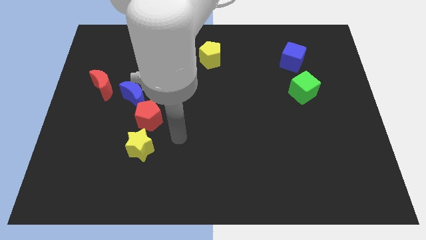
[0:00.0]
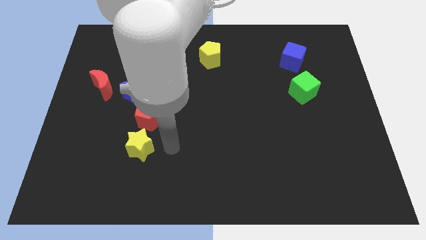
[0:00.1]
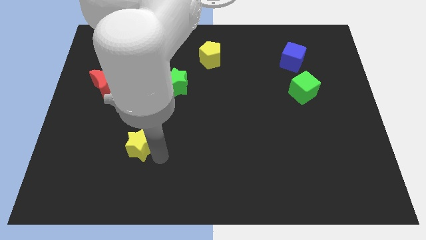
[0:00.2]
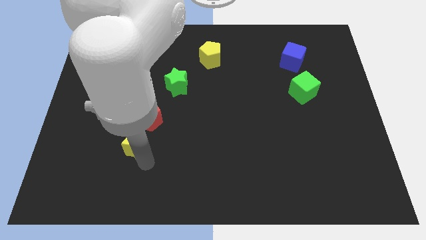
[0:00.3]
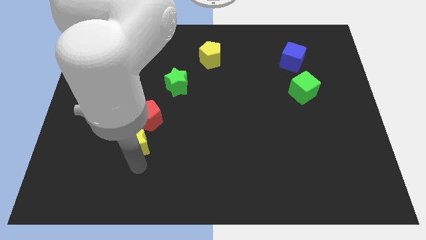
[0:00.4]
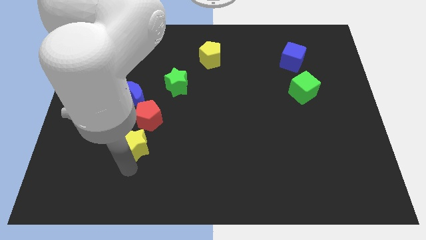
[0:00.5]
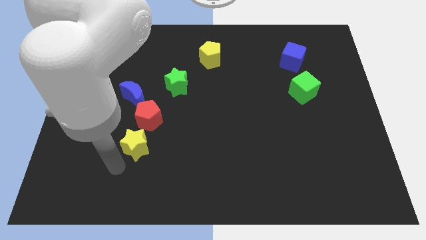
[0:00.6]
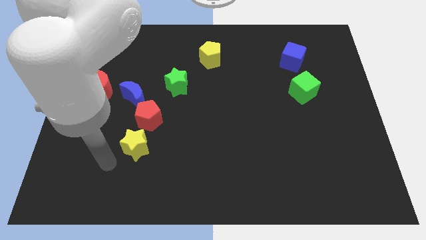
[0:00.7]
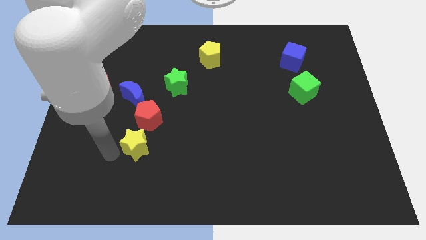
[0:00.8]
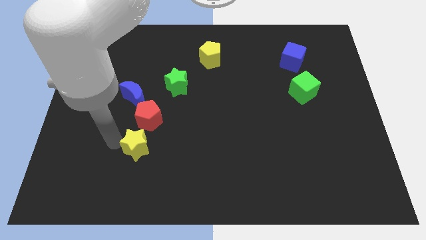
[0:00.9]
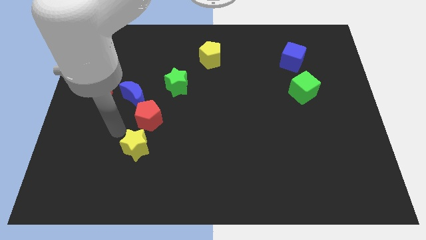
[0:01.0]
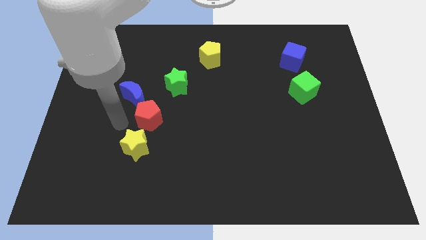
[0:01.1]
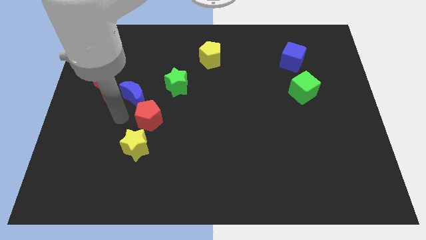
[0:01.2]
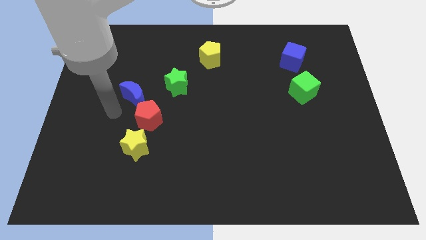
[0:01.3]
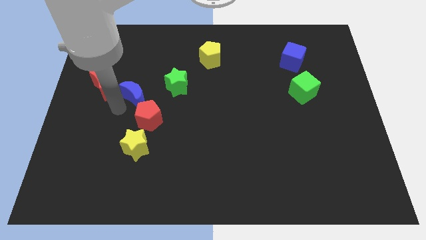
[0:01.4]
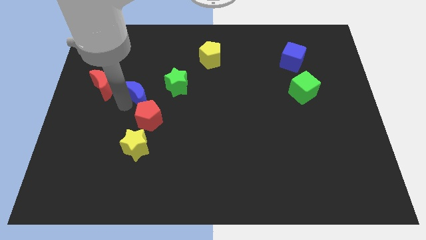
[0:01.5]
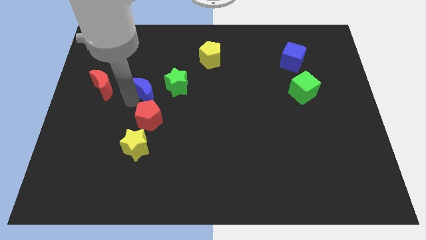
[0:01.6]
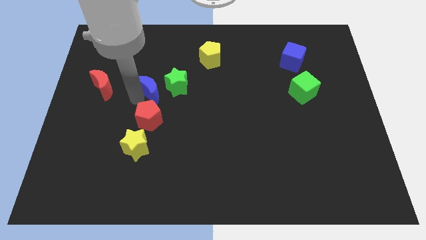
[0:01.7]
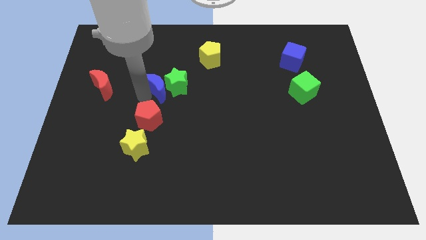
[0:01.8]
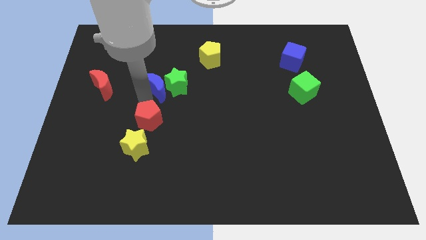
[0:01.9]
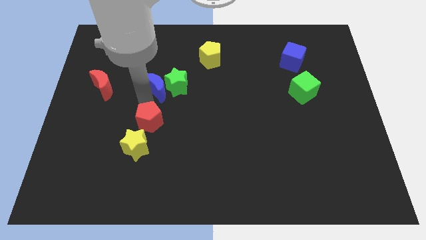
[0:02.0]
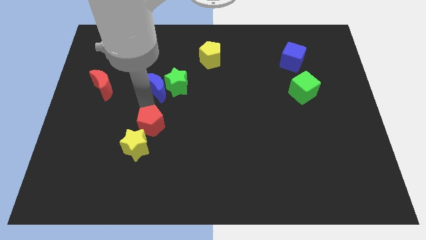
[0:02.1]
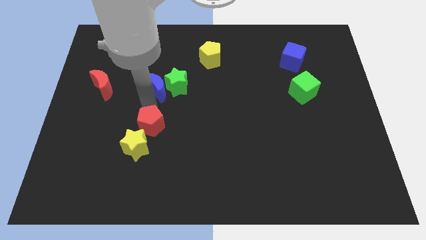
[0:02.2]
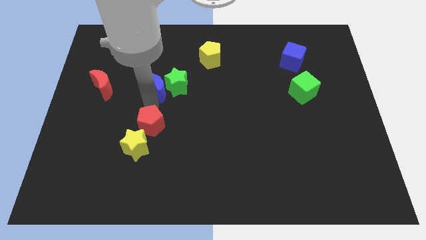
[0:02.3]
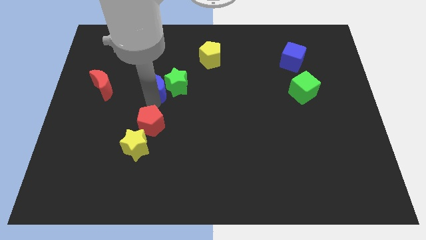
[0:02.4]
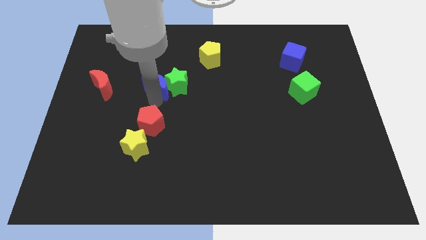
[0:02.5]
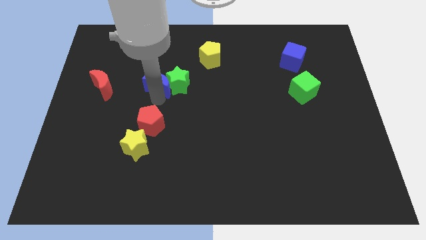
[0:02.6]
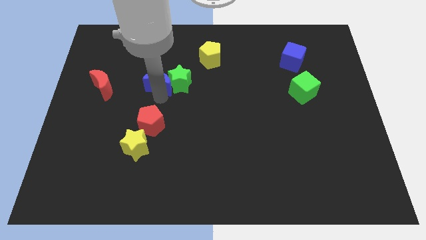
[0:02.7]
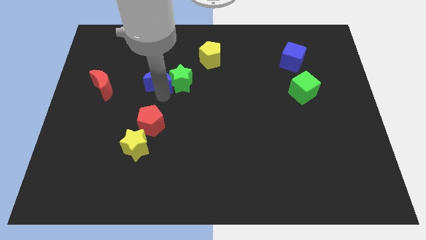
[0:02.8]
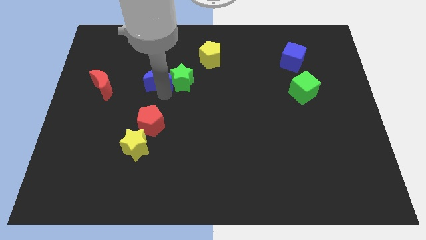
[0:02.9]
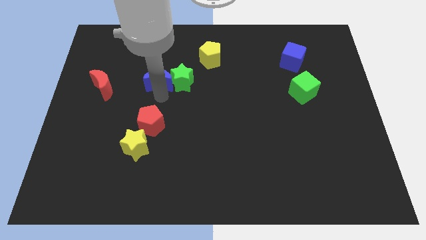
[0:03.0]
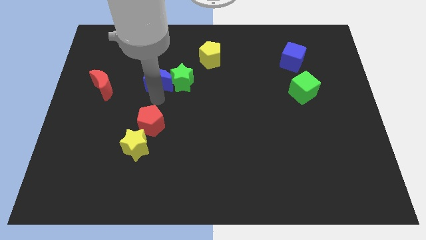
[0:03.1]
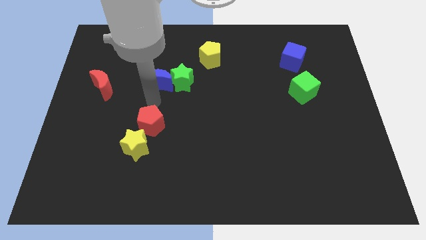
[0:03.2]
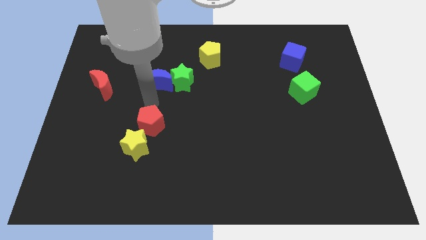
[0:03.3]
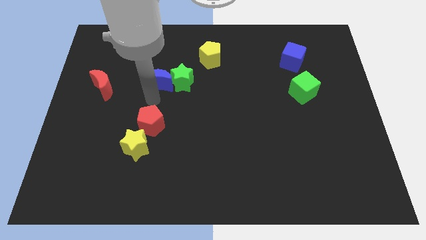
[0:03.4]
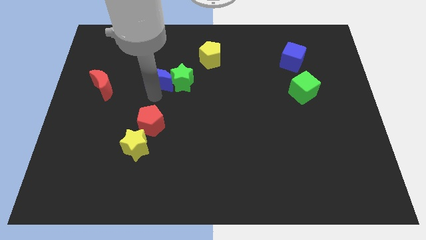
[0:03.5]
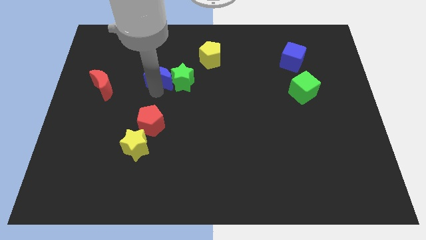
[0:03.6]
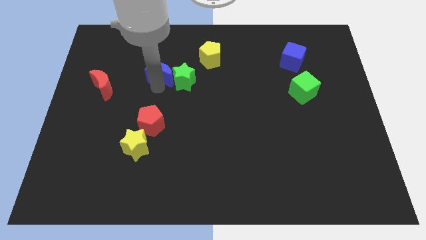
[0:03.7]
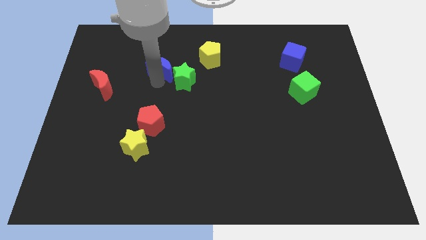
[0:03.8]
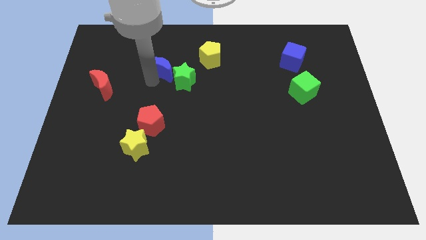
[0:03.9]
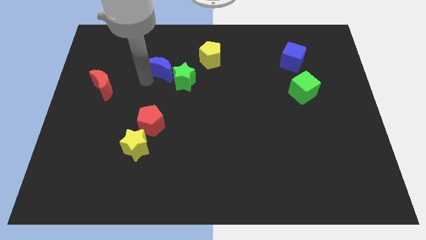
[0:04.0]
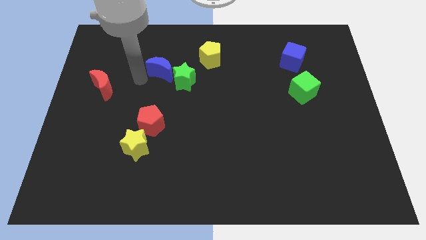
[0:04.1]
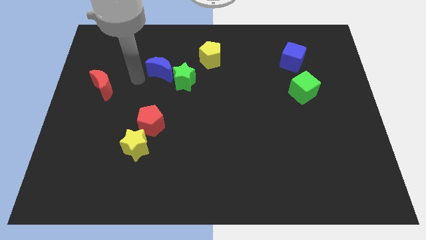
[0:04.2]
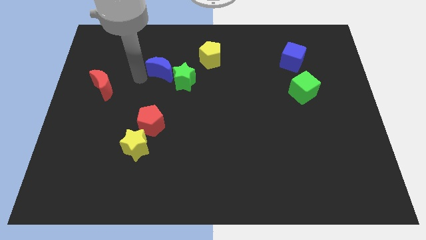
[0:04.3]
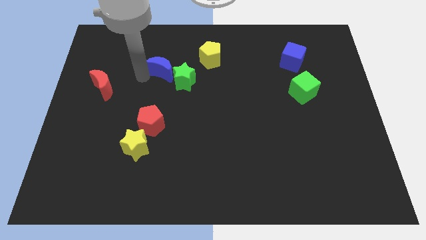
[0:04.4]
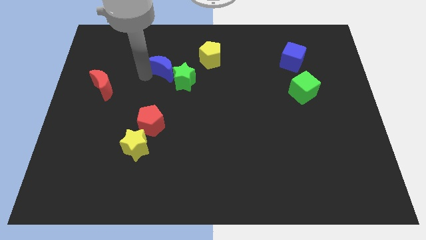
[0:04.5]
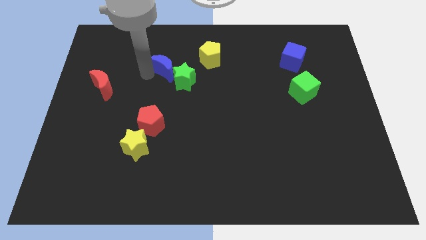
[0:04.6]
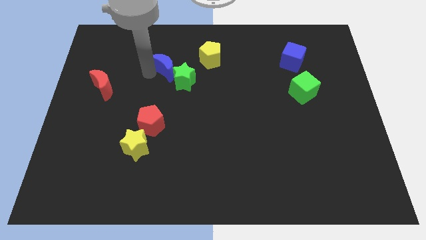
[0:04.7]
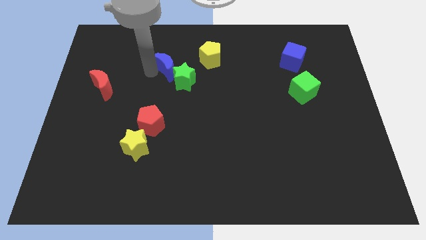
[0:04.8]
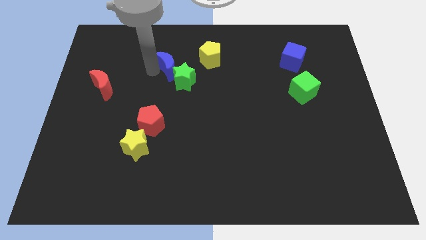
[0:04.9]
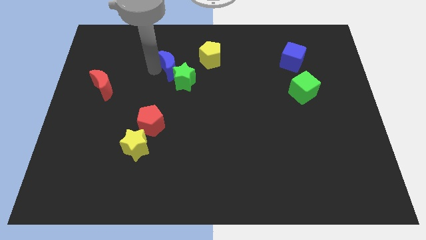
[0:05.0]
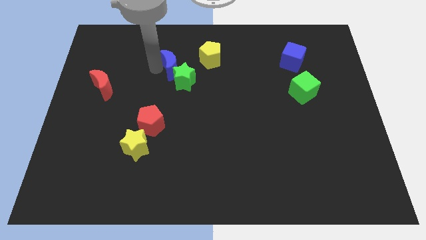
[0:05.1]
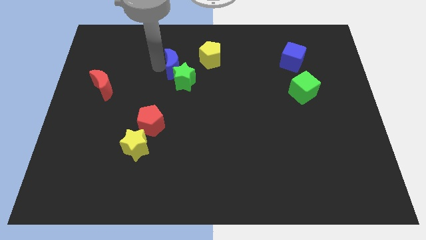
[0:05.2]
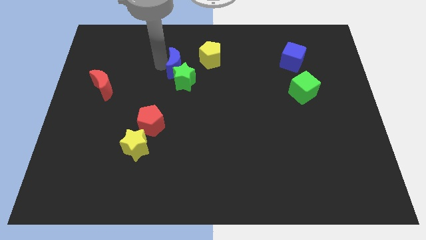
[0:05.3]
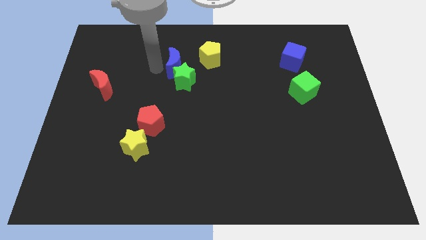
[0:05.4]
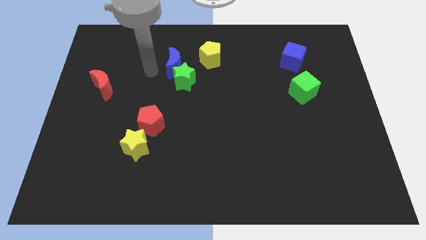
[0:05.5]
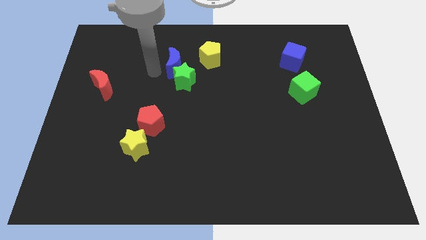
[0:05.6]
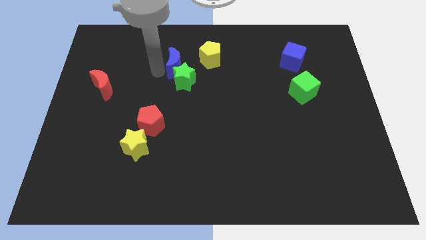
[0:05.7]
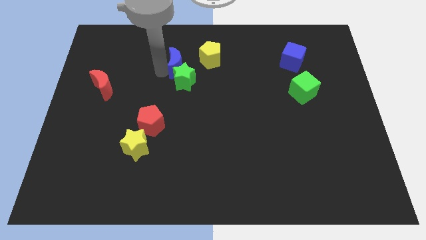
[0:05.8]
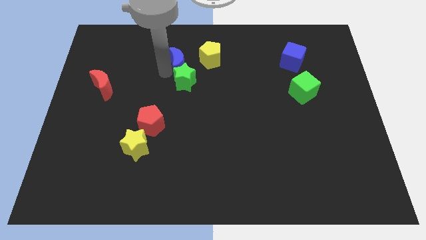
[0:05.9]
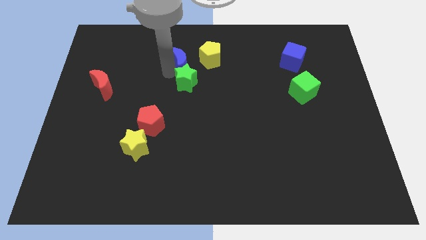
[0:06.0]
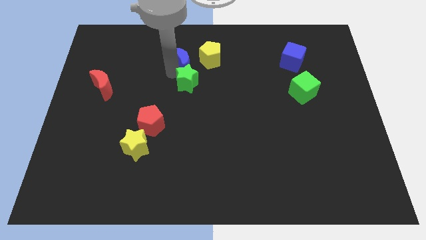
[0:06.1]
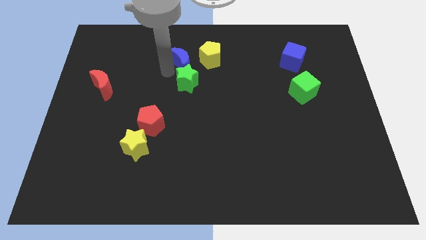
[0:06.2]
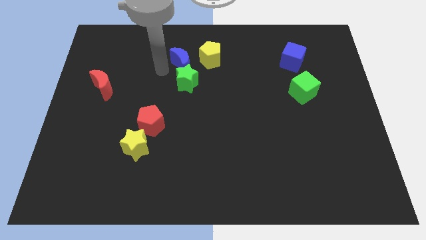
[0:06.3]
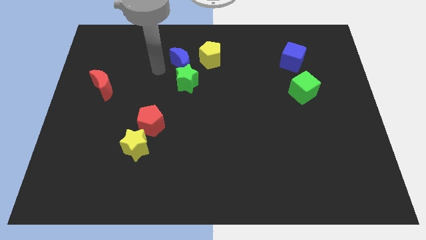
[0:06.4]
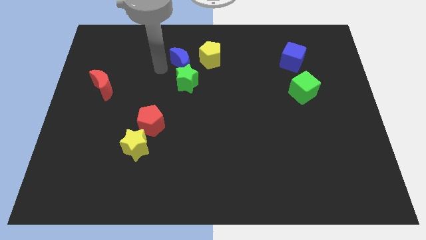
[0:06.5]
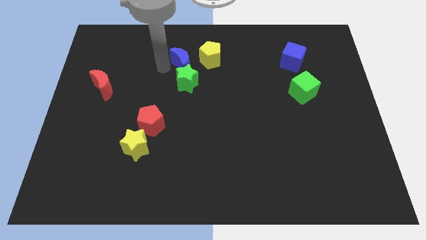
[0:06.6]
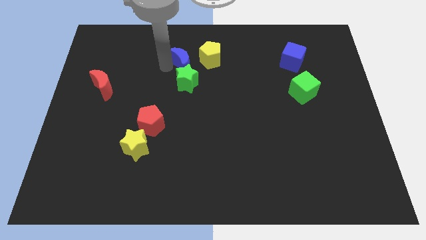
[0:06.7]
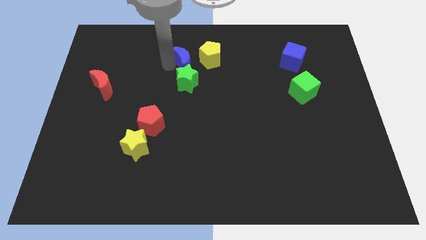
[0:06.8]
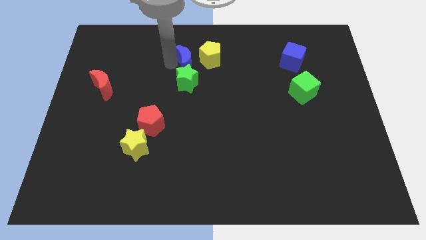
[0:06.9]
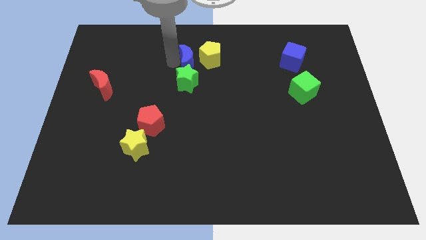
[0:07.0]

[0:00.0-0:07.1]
move the blue moon to the yellow pentagon
